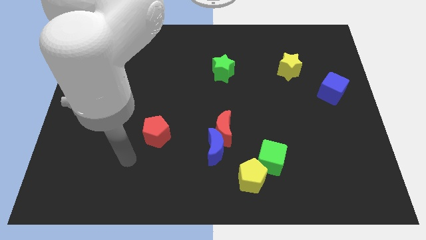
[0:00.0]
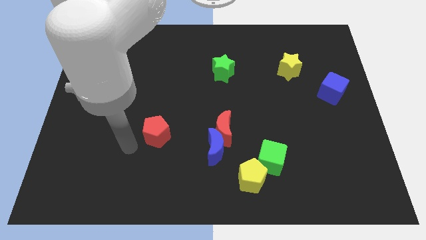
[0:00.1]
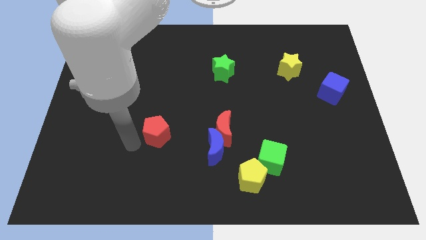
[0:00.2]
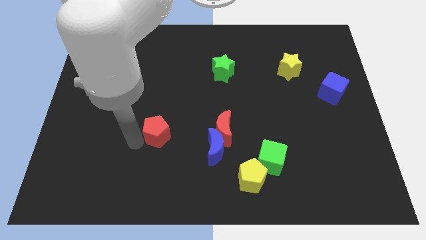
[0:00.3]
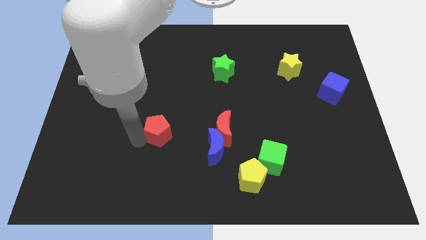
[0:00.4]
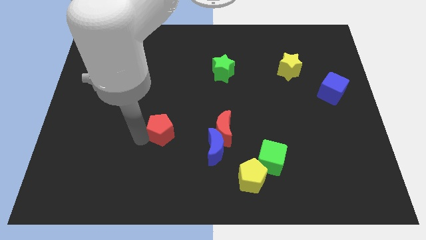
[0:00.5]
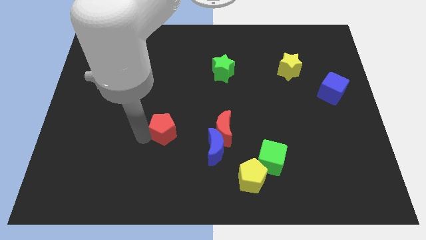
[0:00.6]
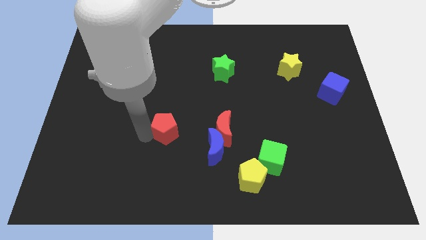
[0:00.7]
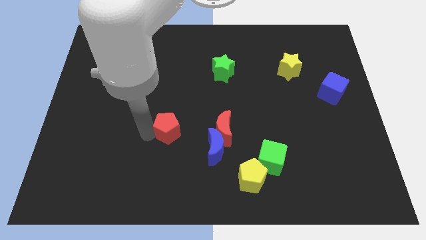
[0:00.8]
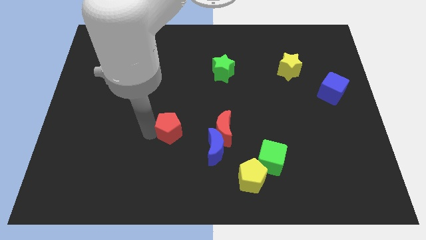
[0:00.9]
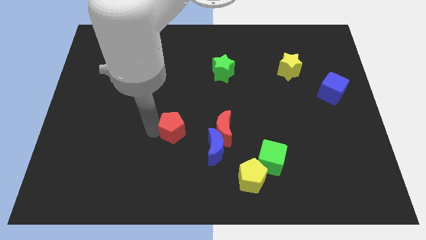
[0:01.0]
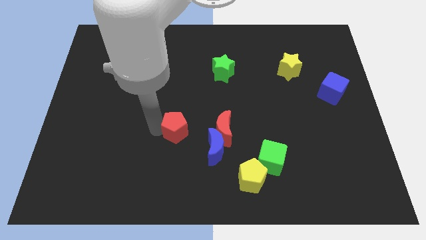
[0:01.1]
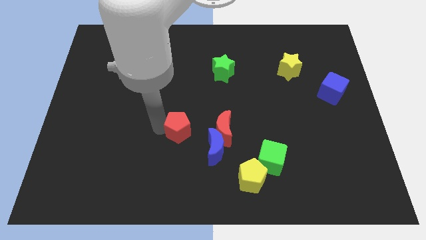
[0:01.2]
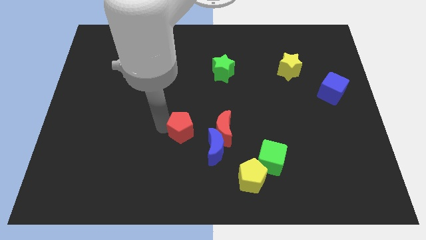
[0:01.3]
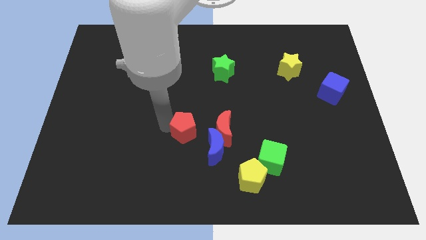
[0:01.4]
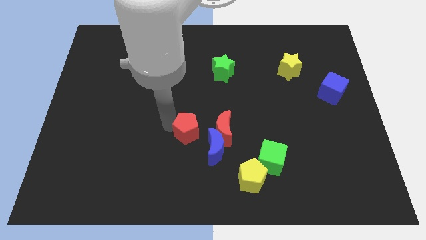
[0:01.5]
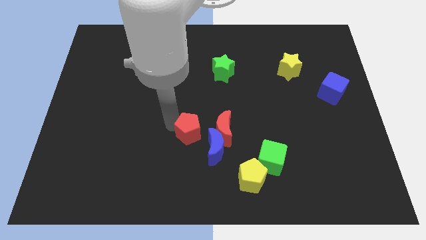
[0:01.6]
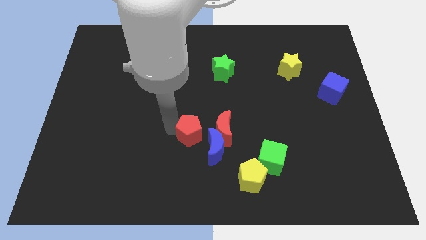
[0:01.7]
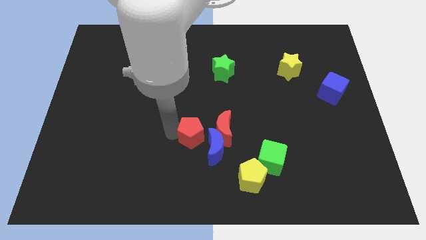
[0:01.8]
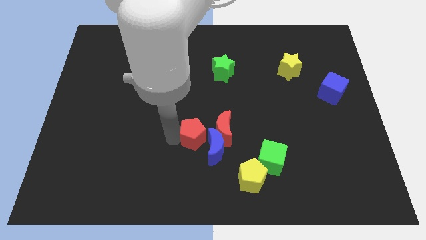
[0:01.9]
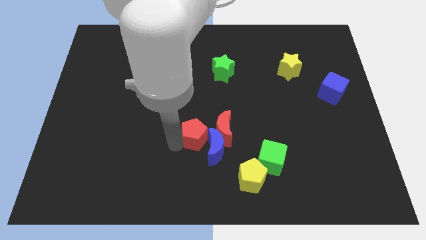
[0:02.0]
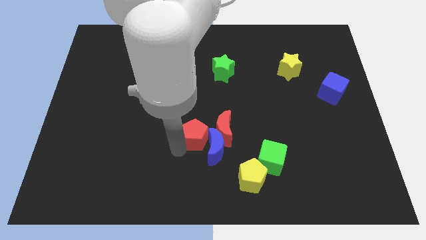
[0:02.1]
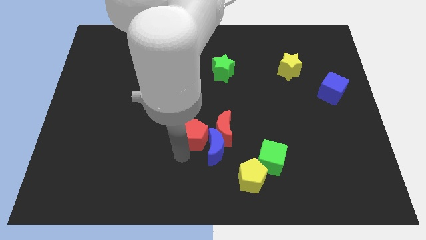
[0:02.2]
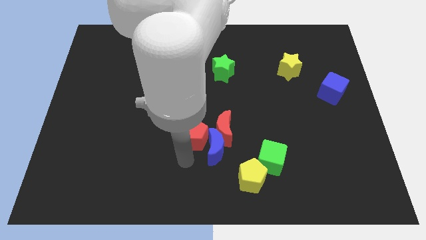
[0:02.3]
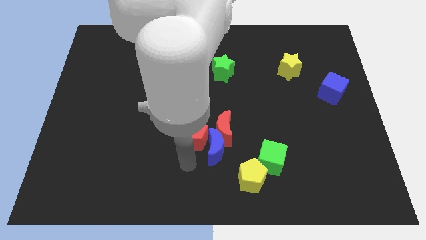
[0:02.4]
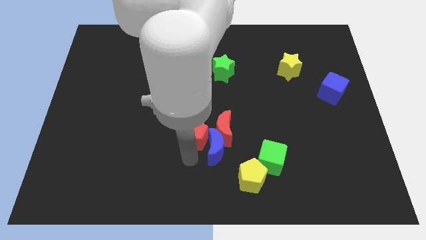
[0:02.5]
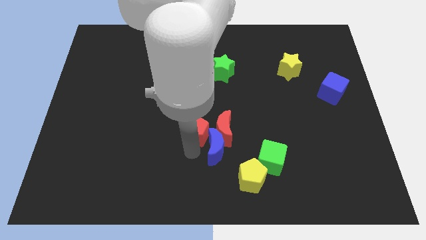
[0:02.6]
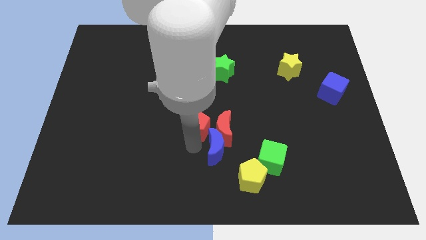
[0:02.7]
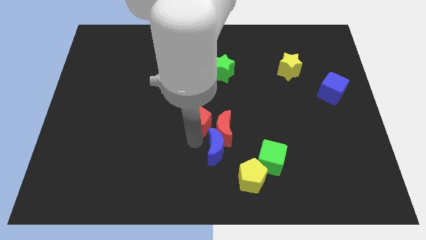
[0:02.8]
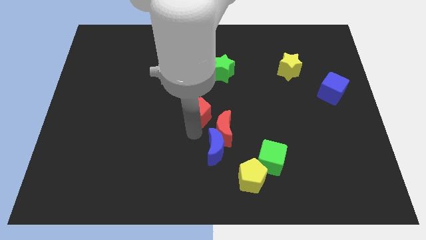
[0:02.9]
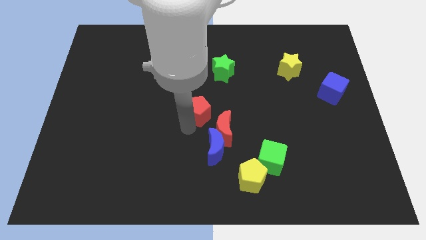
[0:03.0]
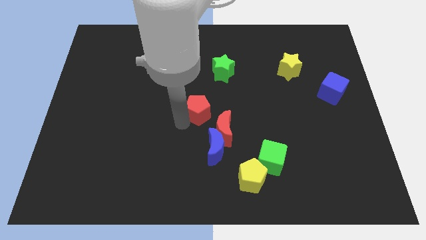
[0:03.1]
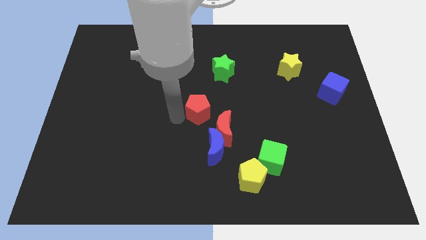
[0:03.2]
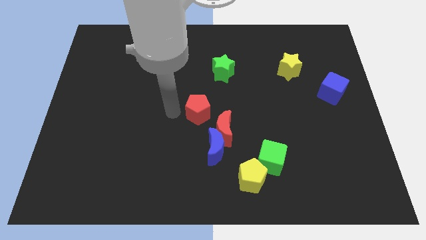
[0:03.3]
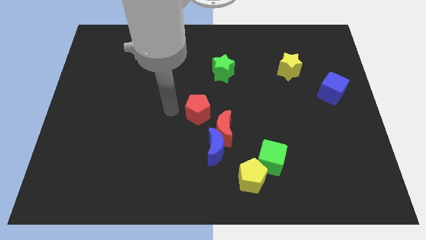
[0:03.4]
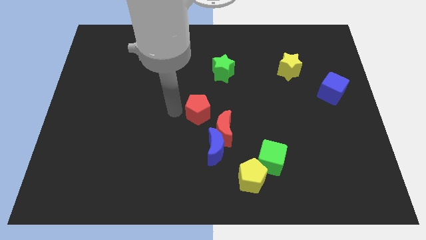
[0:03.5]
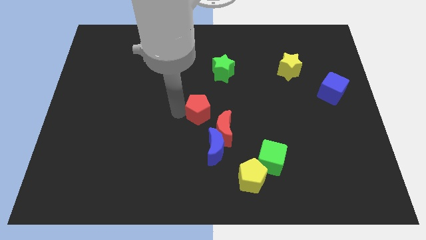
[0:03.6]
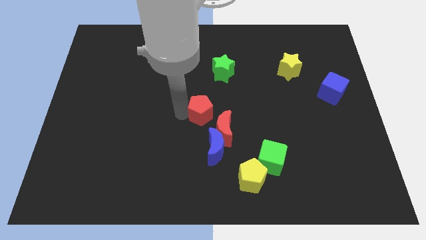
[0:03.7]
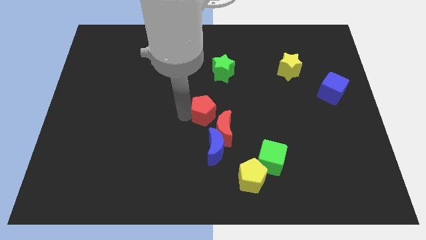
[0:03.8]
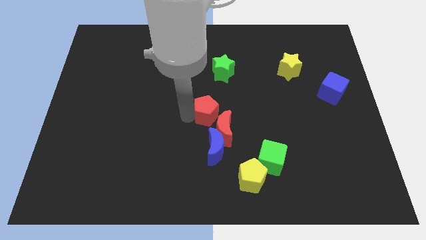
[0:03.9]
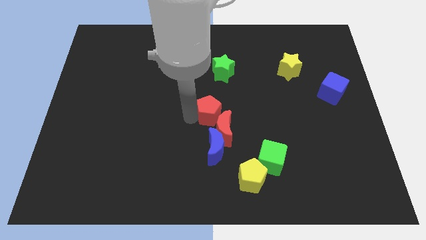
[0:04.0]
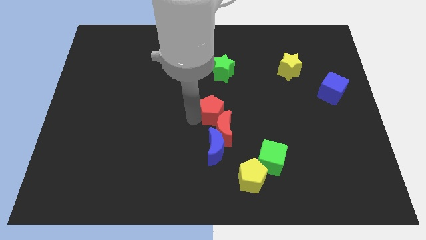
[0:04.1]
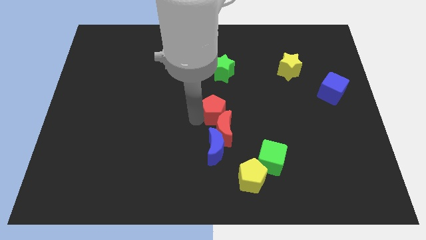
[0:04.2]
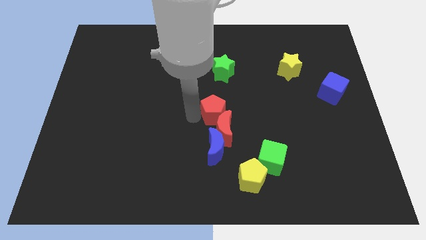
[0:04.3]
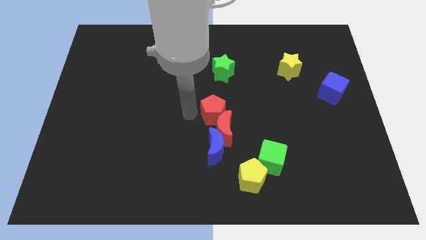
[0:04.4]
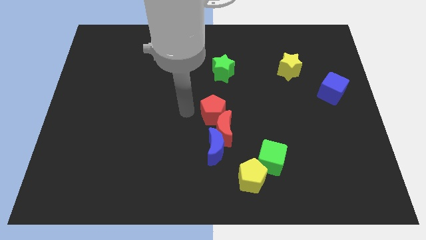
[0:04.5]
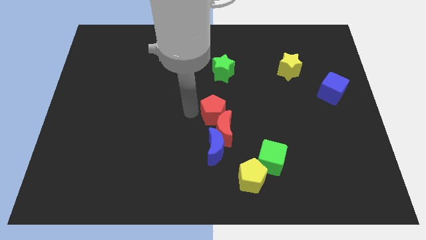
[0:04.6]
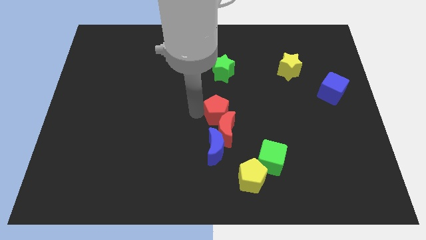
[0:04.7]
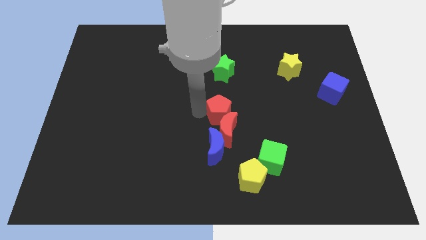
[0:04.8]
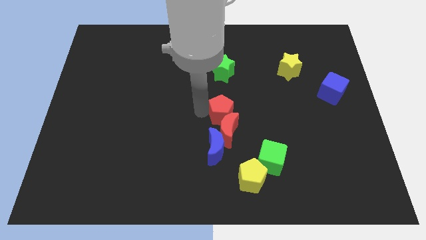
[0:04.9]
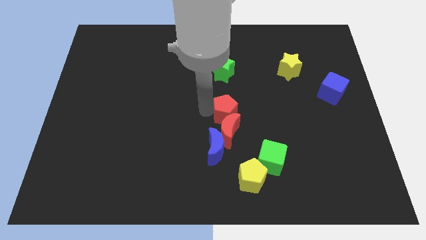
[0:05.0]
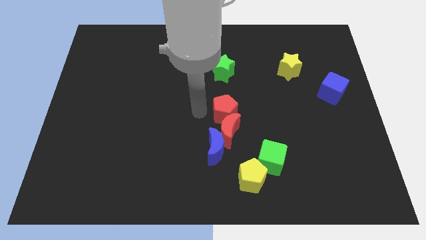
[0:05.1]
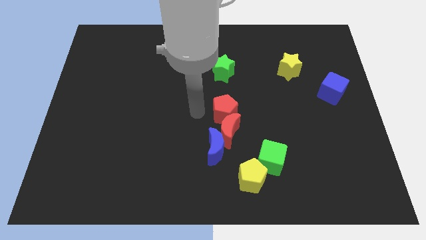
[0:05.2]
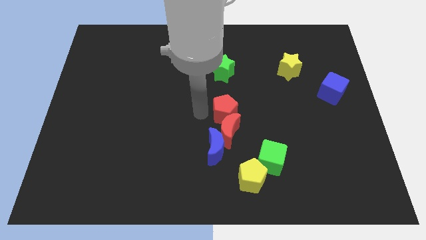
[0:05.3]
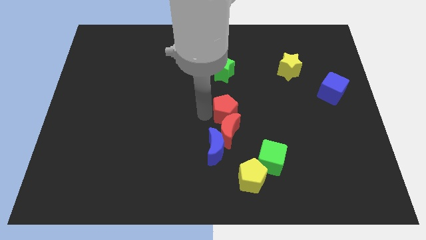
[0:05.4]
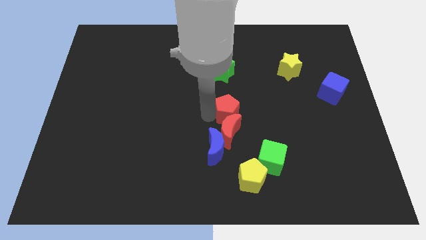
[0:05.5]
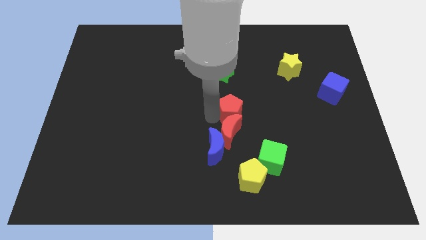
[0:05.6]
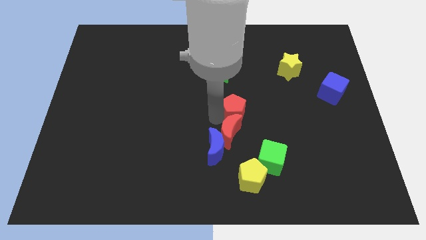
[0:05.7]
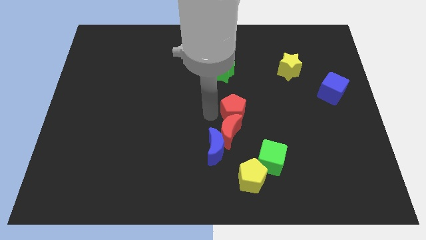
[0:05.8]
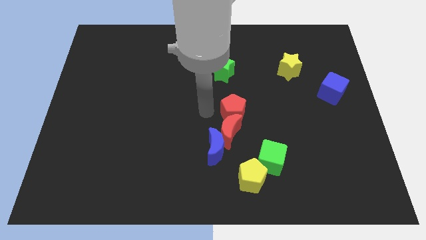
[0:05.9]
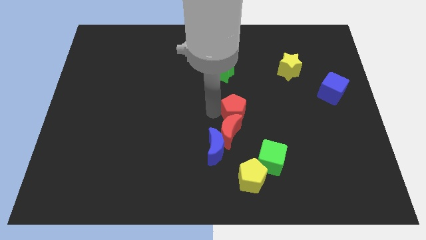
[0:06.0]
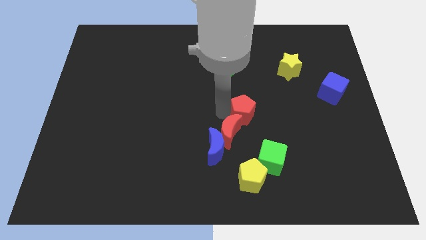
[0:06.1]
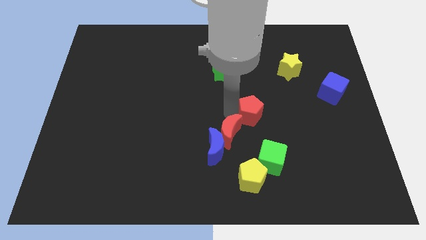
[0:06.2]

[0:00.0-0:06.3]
move the red pentagon right

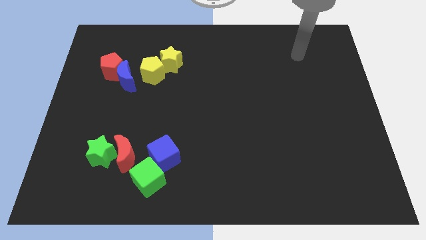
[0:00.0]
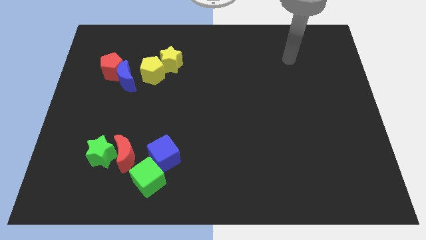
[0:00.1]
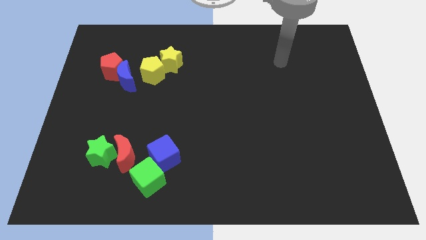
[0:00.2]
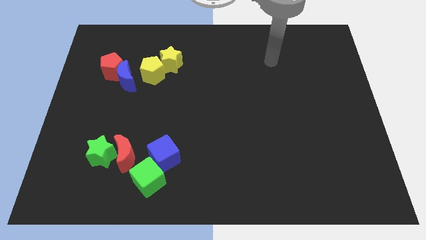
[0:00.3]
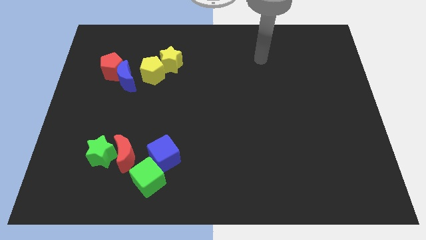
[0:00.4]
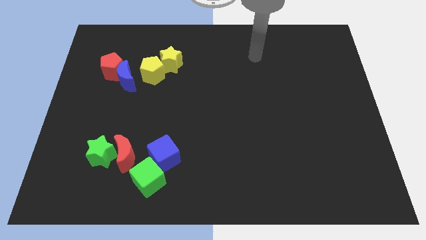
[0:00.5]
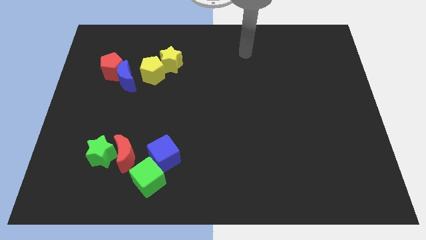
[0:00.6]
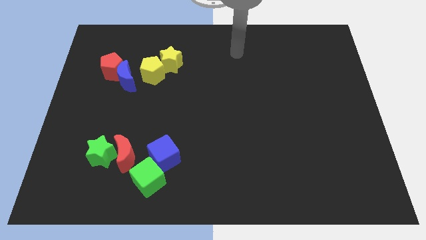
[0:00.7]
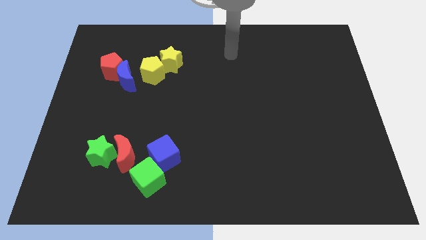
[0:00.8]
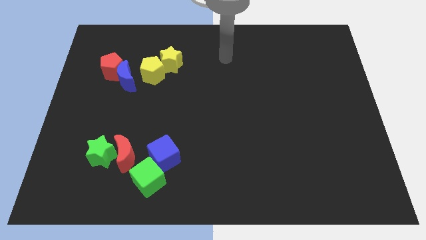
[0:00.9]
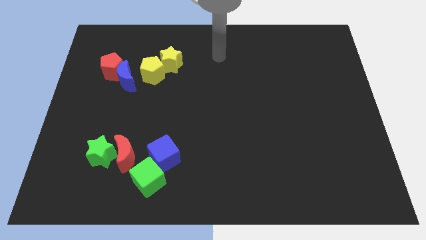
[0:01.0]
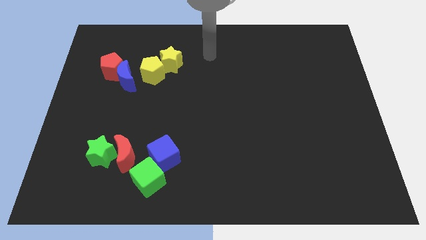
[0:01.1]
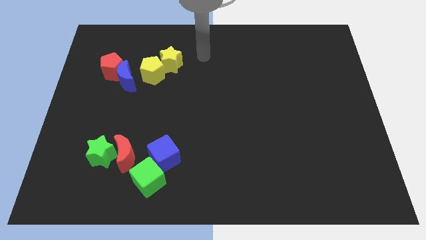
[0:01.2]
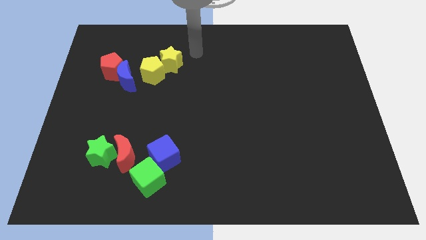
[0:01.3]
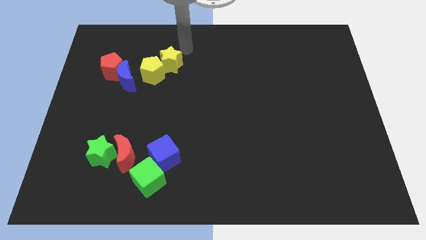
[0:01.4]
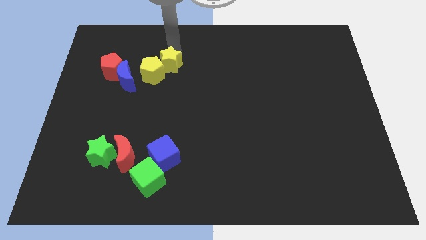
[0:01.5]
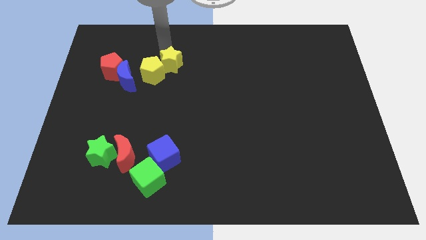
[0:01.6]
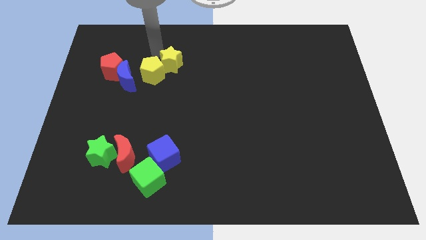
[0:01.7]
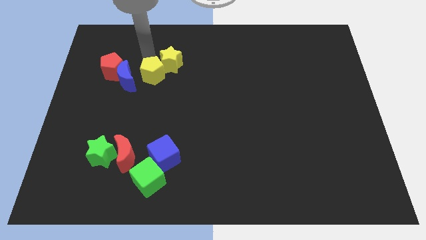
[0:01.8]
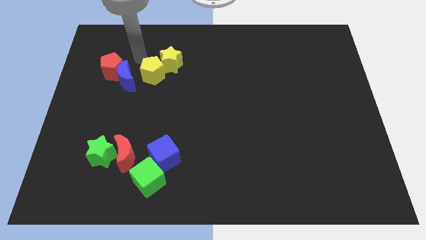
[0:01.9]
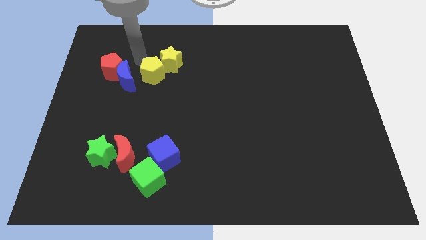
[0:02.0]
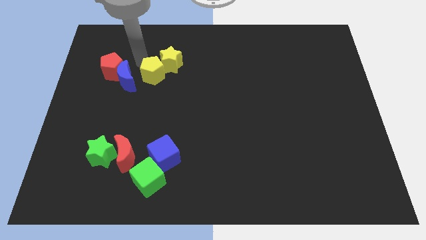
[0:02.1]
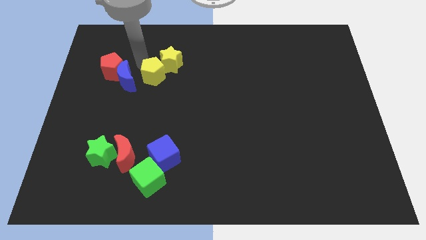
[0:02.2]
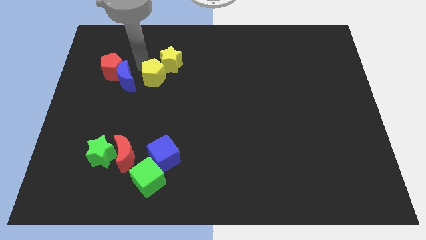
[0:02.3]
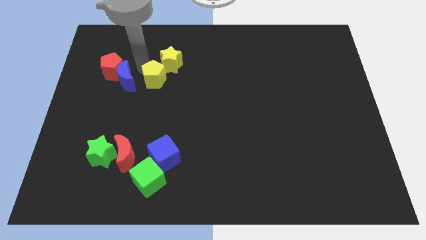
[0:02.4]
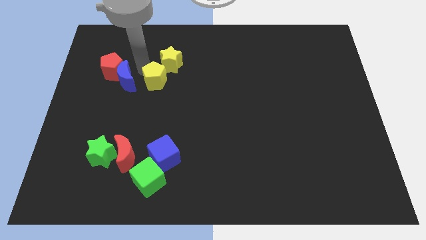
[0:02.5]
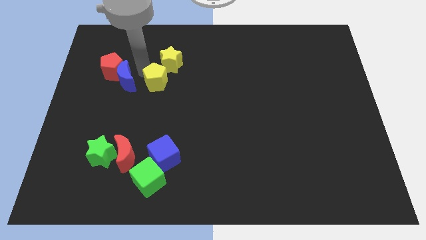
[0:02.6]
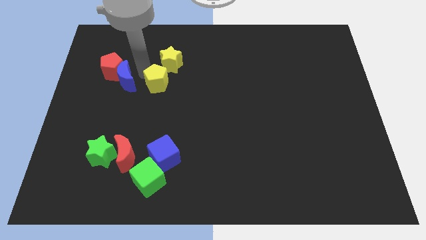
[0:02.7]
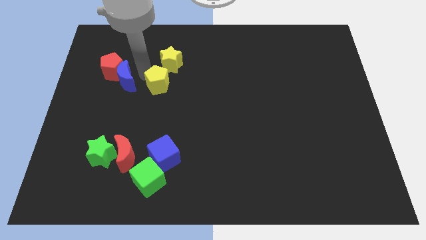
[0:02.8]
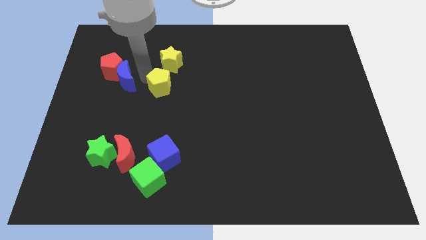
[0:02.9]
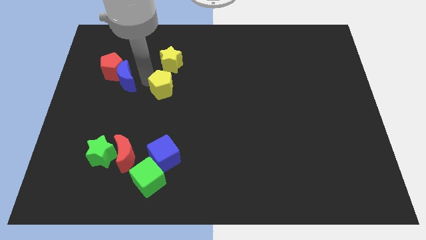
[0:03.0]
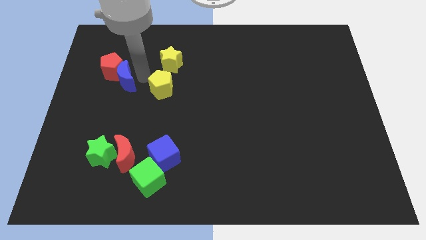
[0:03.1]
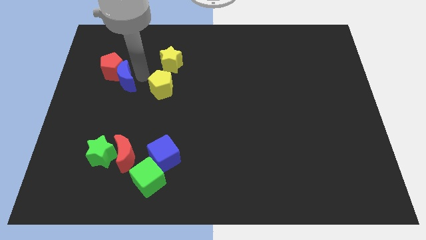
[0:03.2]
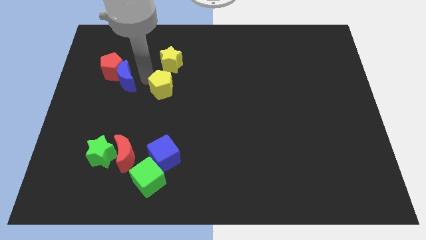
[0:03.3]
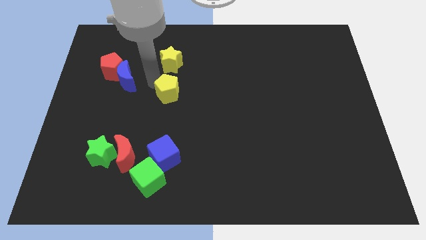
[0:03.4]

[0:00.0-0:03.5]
push the yellow pentagon diagonally down and to the right somewhat
